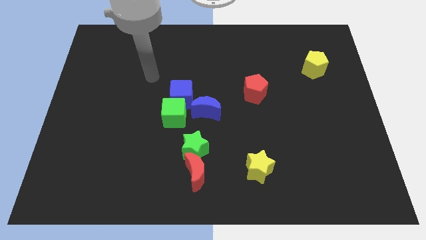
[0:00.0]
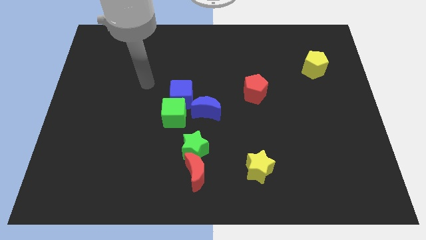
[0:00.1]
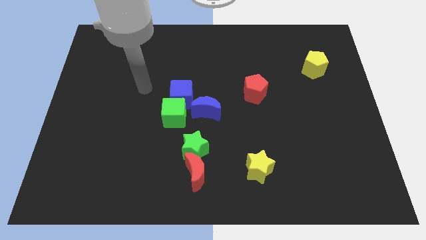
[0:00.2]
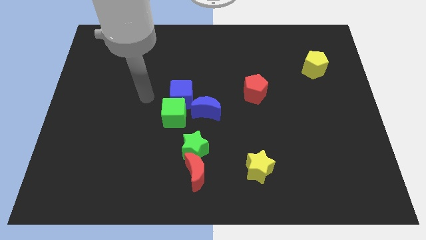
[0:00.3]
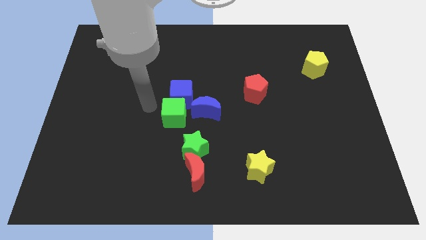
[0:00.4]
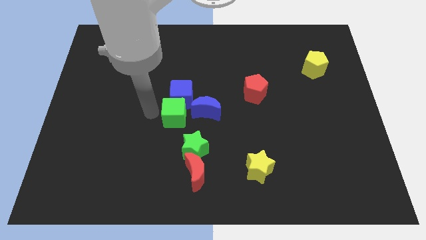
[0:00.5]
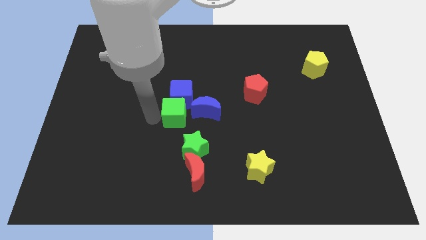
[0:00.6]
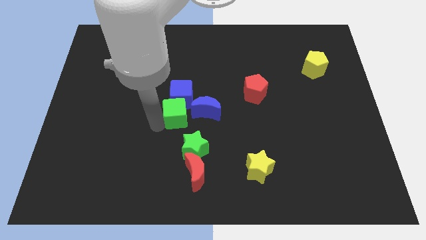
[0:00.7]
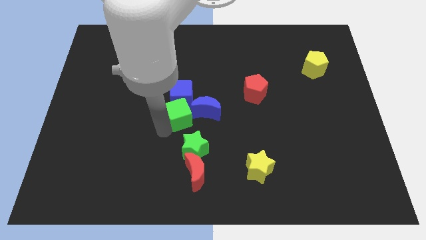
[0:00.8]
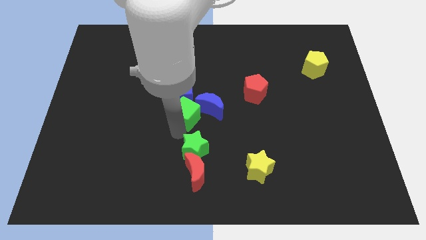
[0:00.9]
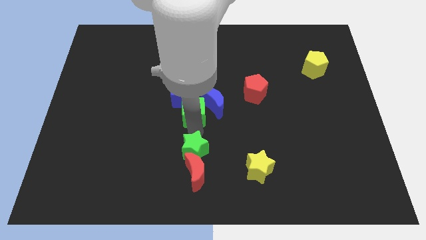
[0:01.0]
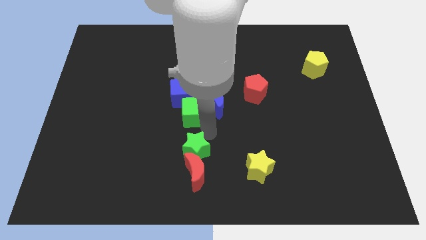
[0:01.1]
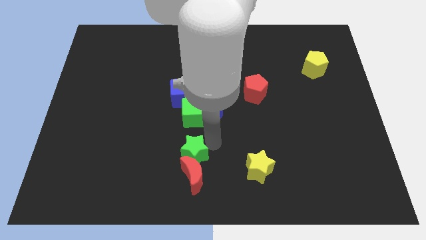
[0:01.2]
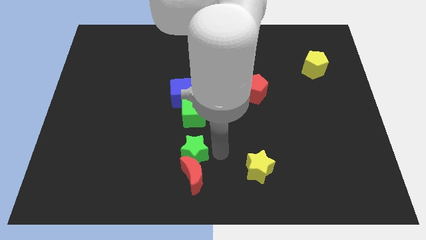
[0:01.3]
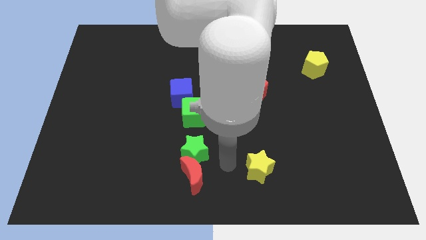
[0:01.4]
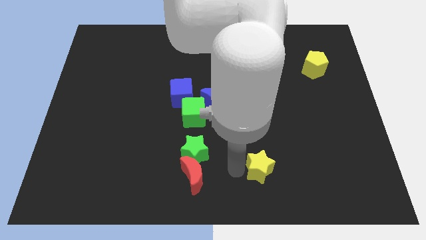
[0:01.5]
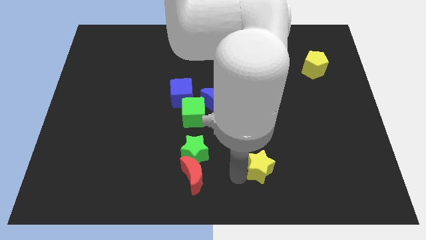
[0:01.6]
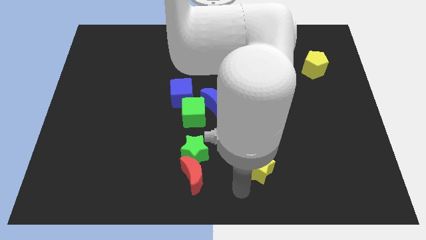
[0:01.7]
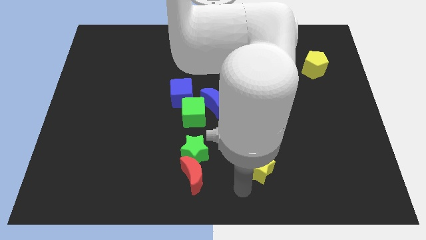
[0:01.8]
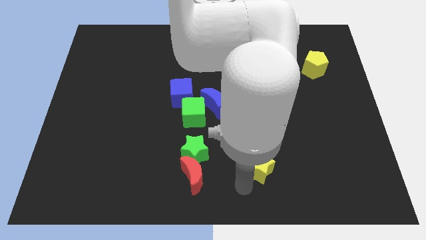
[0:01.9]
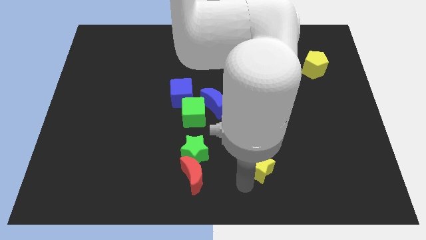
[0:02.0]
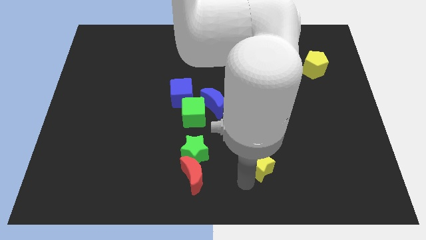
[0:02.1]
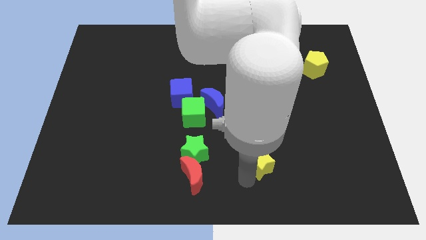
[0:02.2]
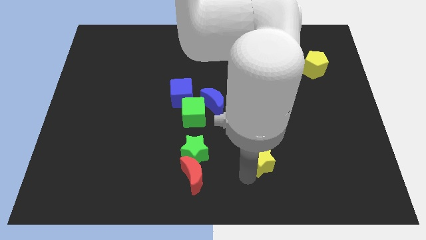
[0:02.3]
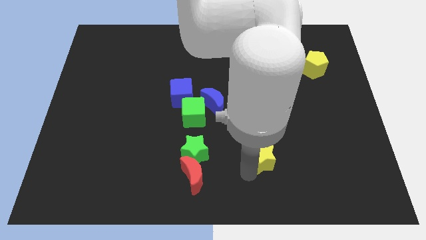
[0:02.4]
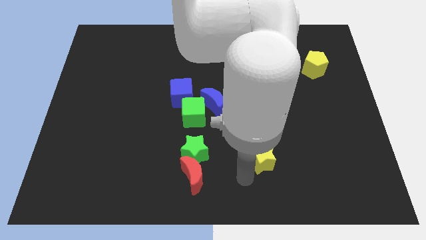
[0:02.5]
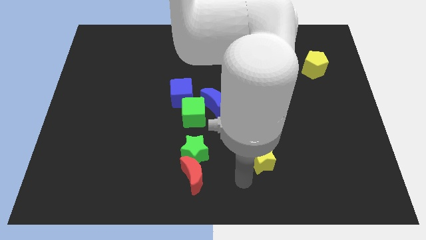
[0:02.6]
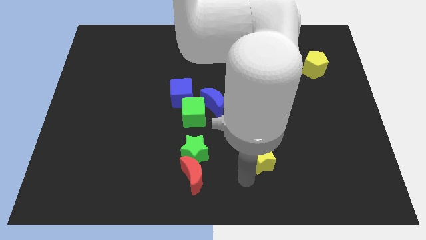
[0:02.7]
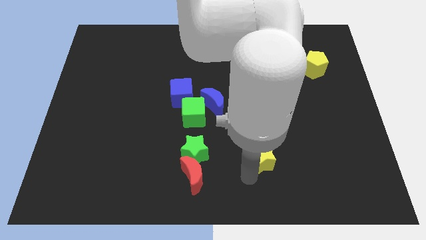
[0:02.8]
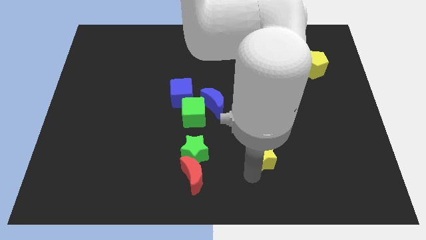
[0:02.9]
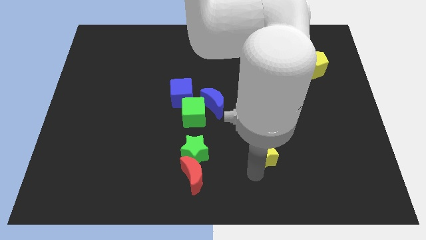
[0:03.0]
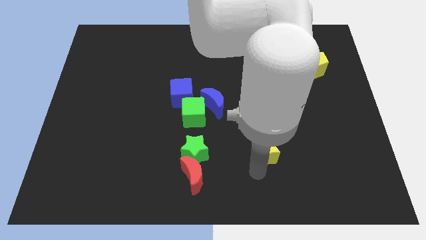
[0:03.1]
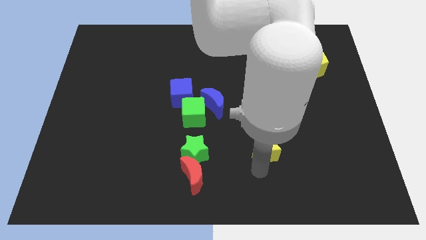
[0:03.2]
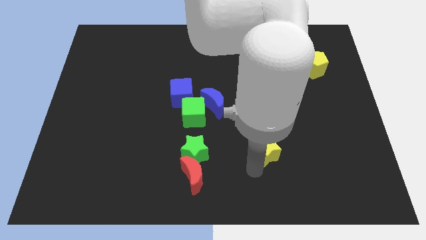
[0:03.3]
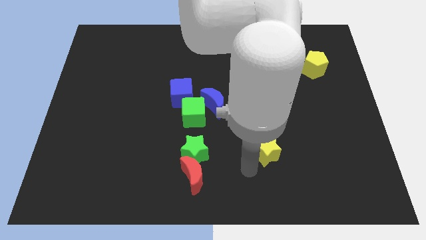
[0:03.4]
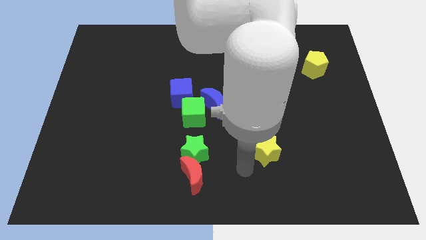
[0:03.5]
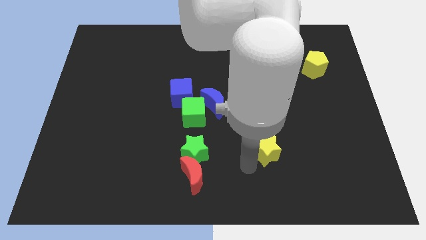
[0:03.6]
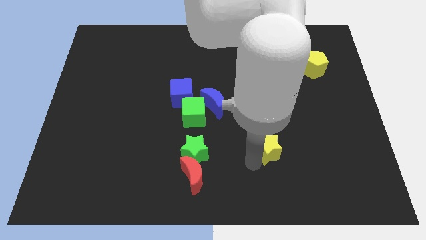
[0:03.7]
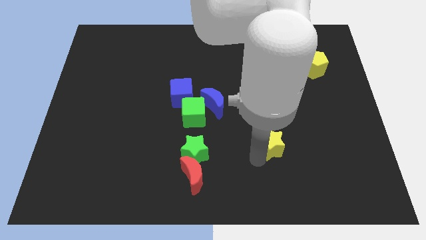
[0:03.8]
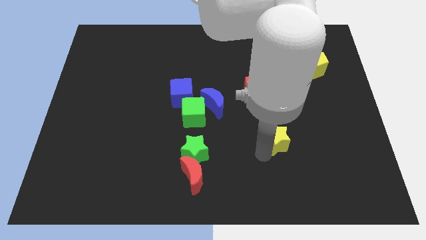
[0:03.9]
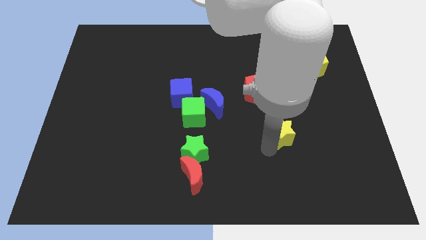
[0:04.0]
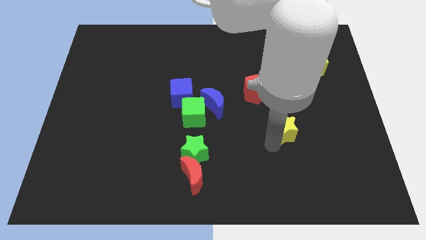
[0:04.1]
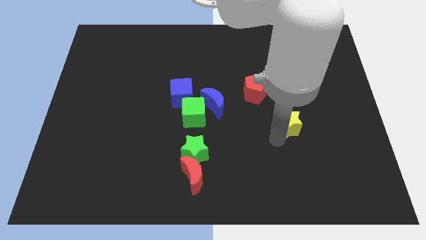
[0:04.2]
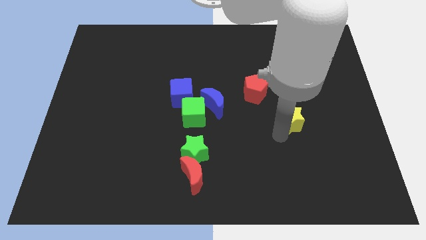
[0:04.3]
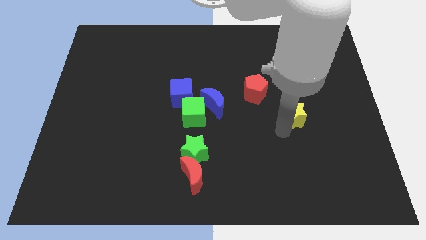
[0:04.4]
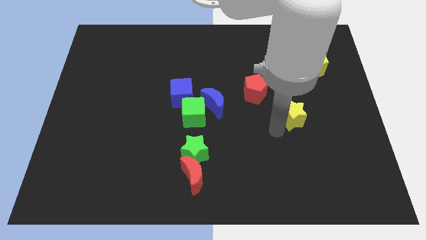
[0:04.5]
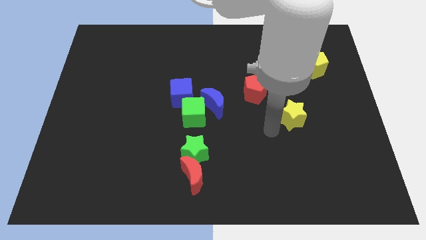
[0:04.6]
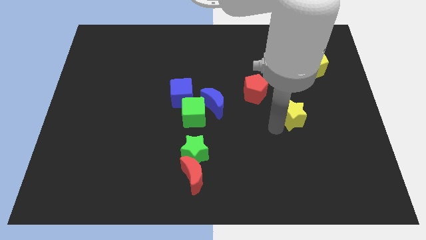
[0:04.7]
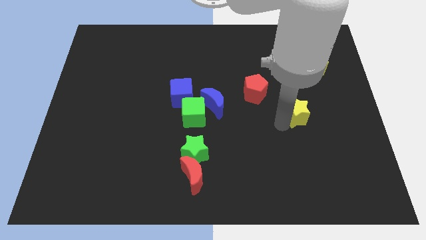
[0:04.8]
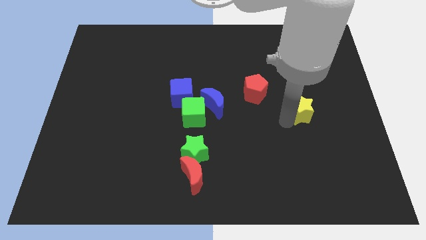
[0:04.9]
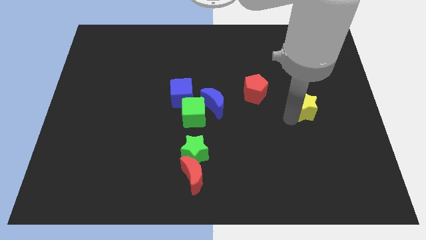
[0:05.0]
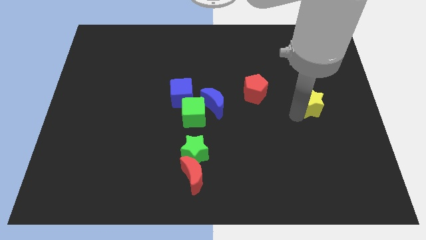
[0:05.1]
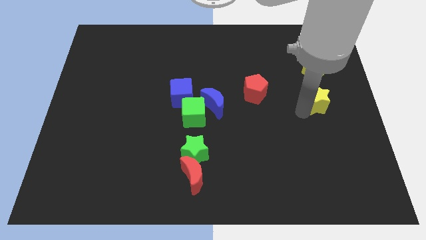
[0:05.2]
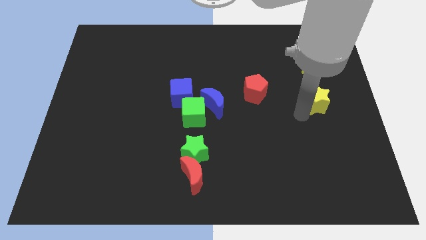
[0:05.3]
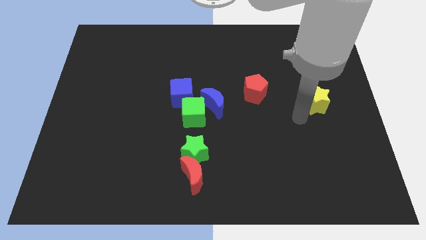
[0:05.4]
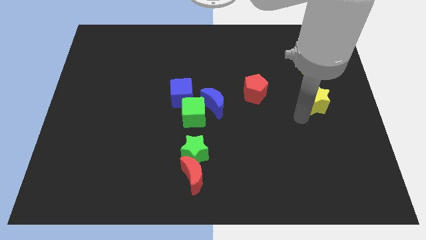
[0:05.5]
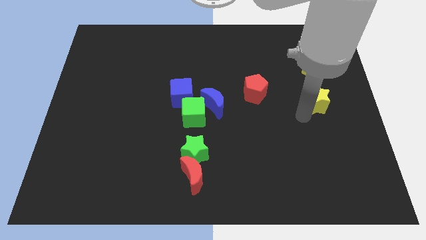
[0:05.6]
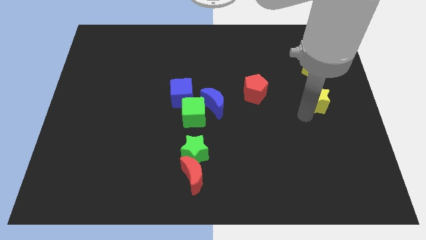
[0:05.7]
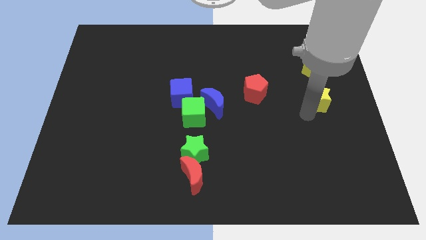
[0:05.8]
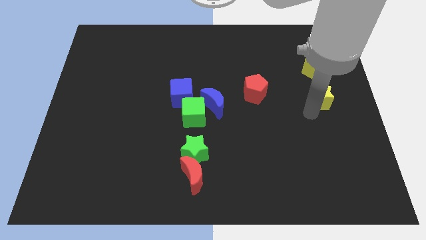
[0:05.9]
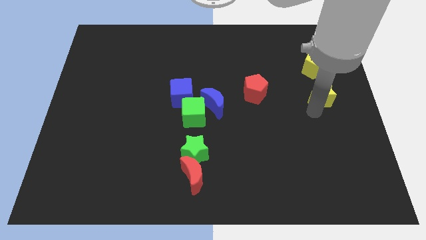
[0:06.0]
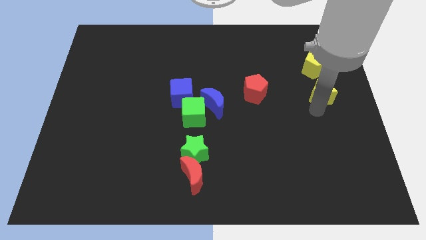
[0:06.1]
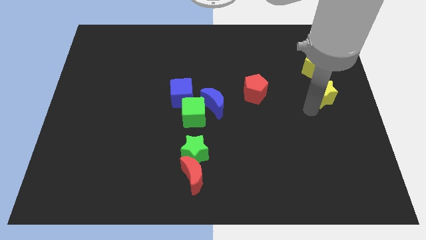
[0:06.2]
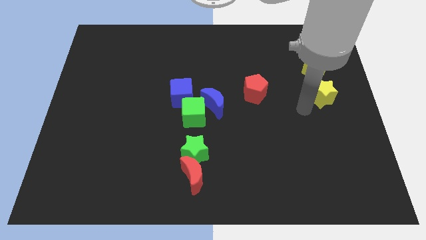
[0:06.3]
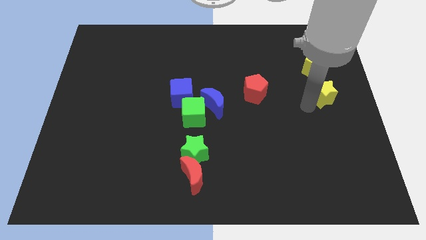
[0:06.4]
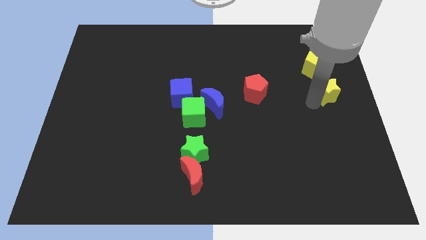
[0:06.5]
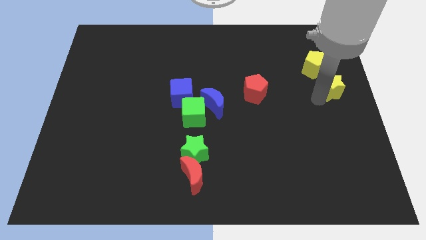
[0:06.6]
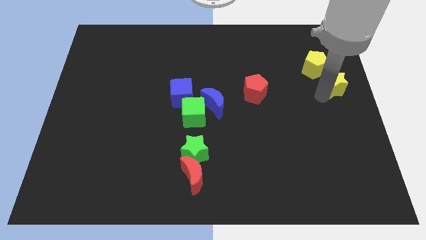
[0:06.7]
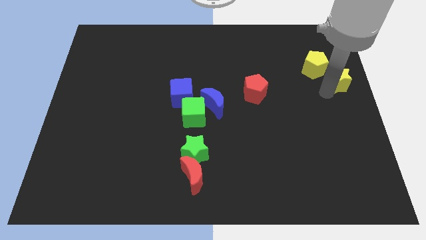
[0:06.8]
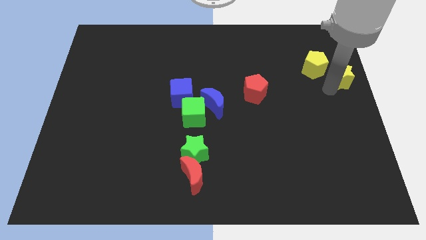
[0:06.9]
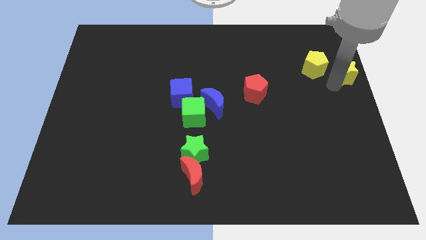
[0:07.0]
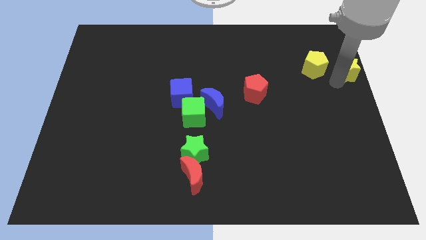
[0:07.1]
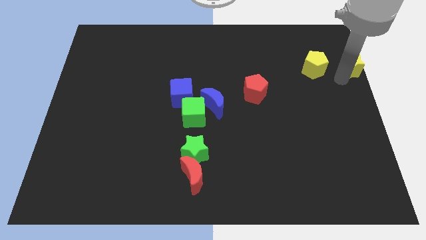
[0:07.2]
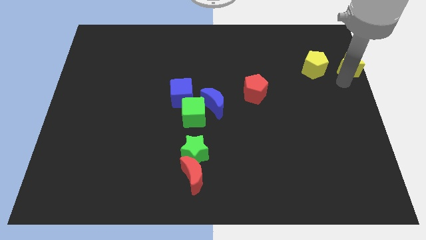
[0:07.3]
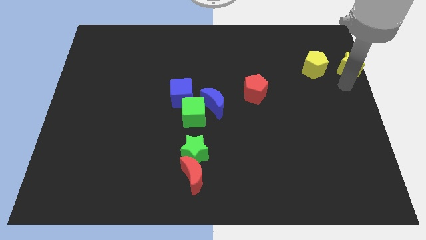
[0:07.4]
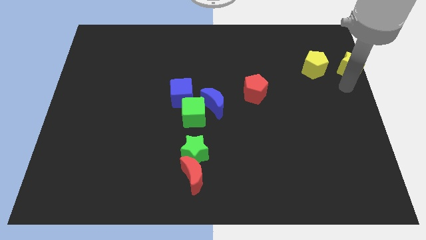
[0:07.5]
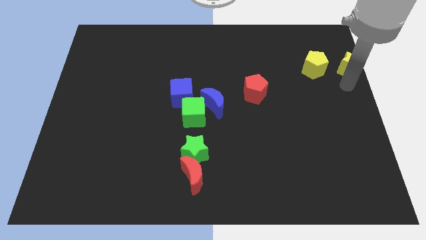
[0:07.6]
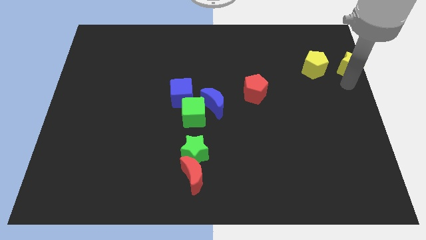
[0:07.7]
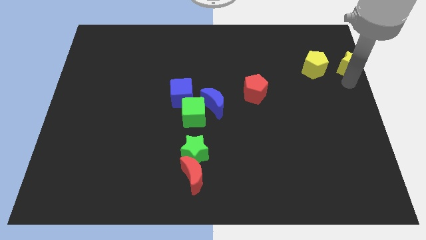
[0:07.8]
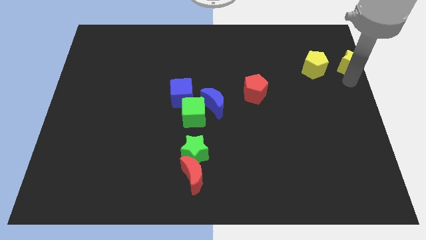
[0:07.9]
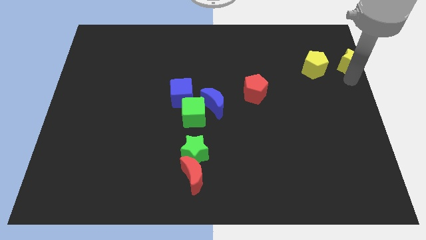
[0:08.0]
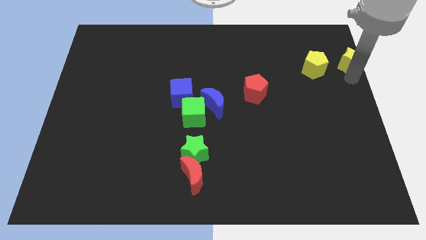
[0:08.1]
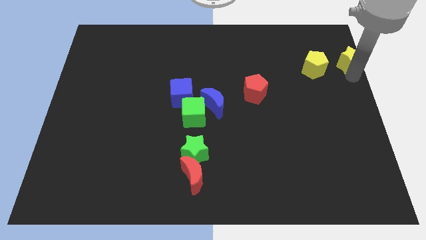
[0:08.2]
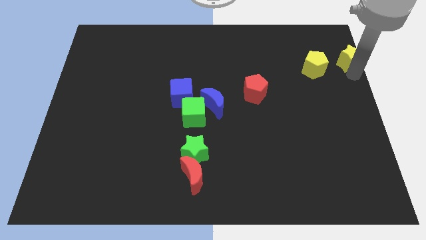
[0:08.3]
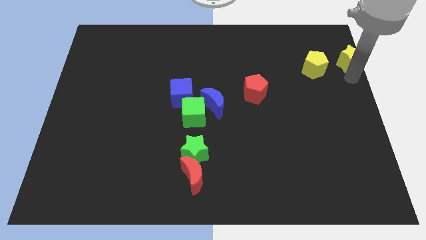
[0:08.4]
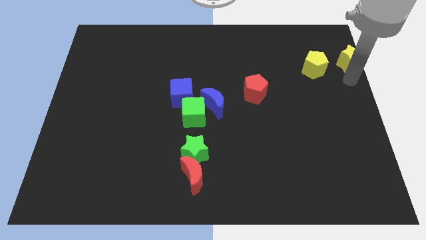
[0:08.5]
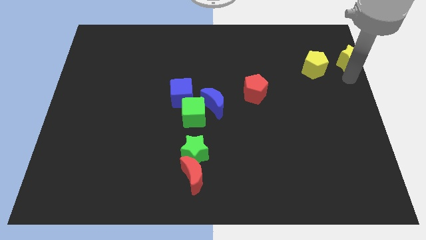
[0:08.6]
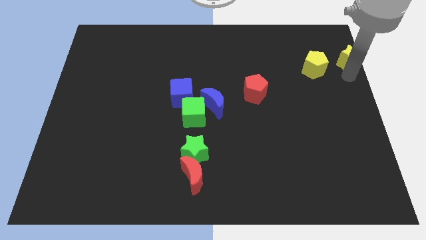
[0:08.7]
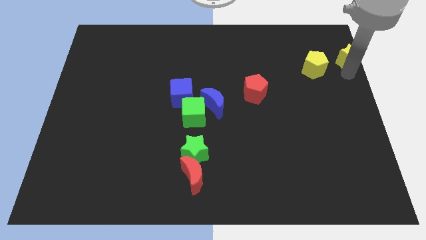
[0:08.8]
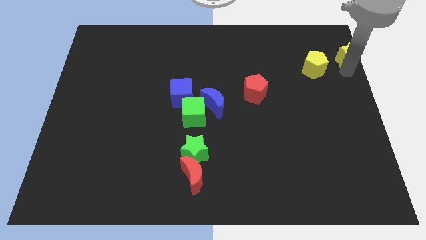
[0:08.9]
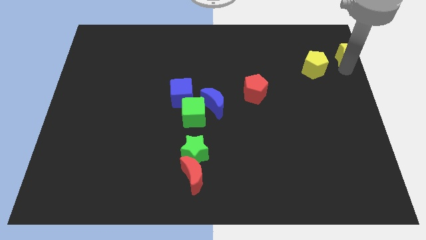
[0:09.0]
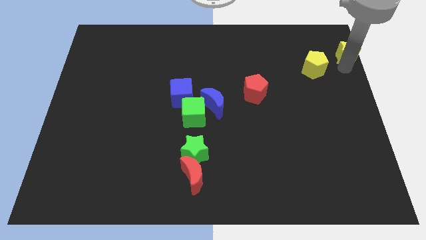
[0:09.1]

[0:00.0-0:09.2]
move the yellow star to the upper right corner
